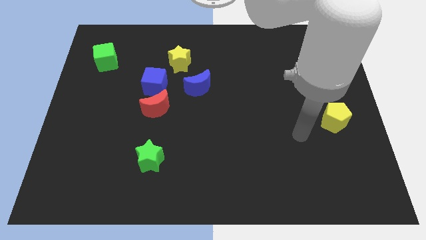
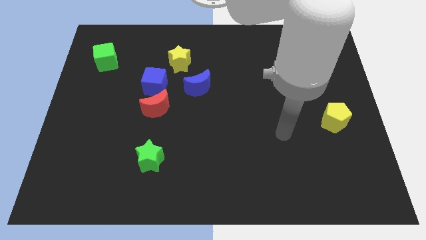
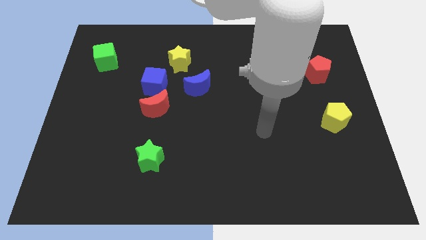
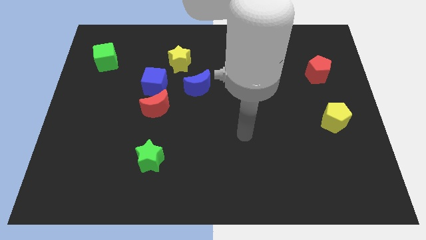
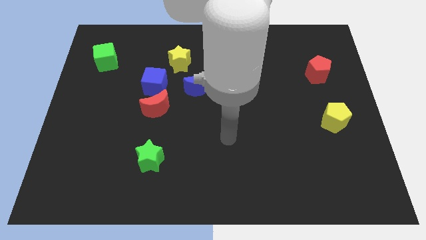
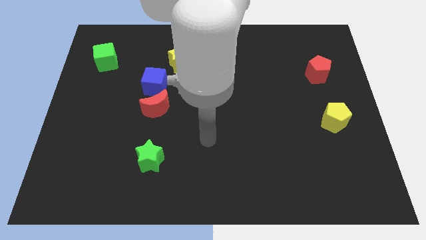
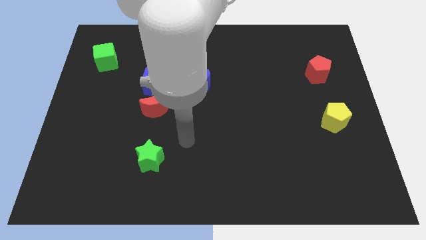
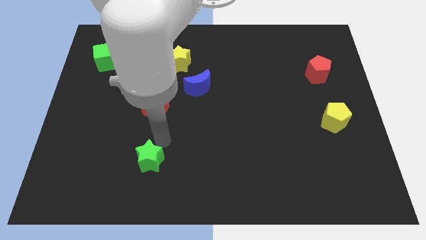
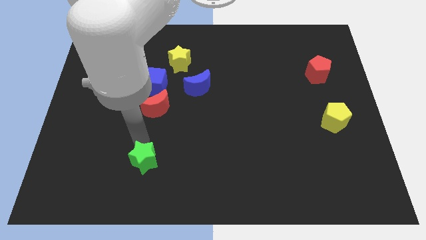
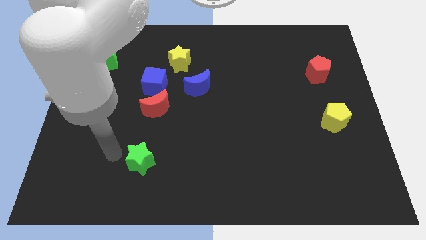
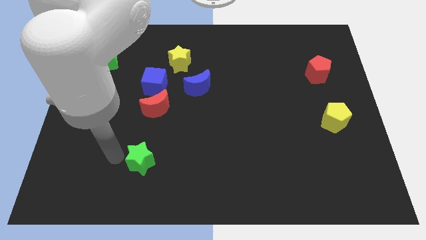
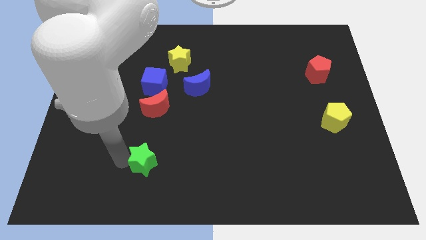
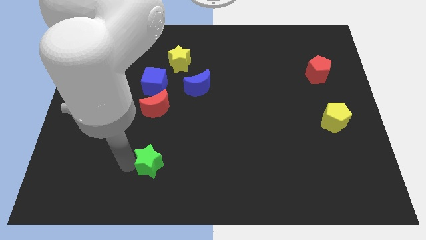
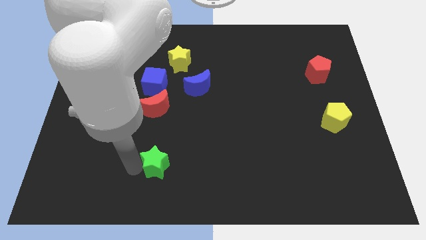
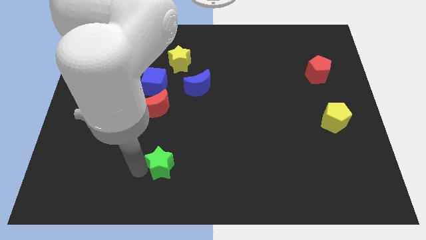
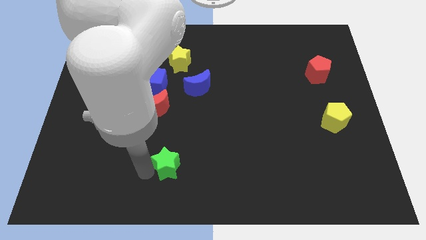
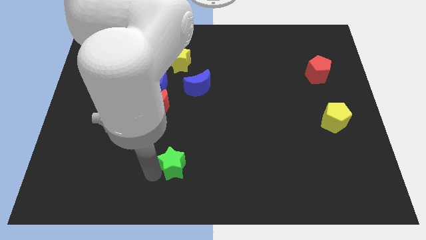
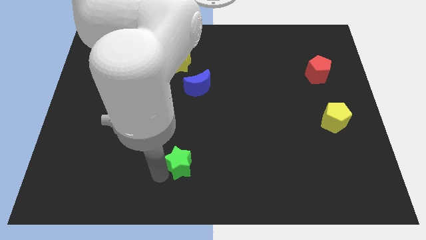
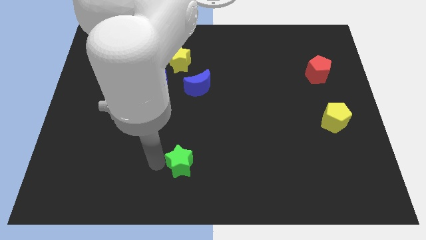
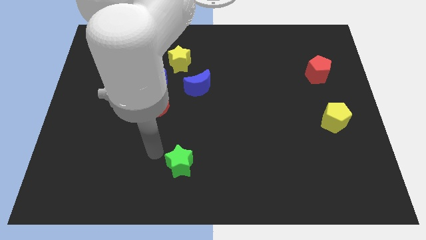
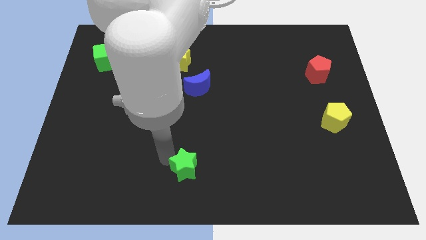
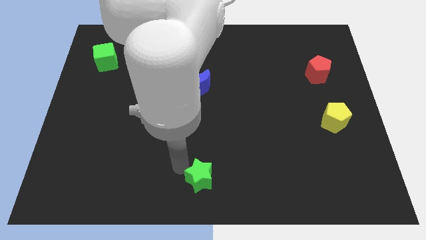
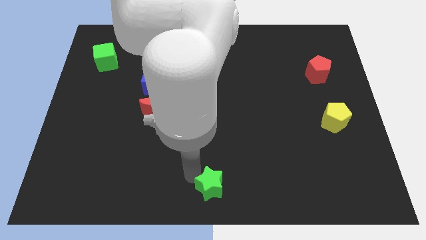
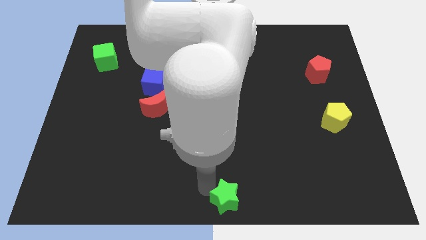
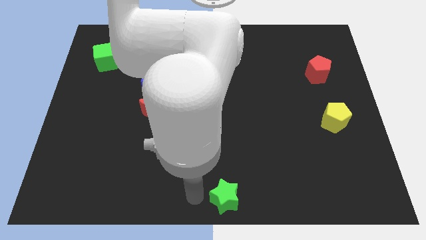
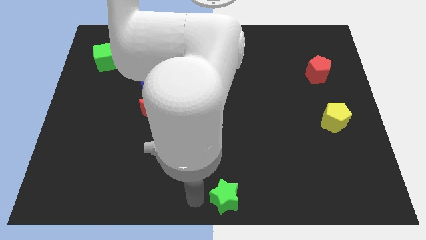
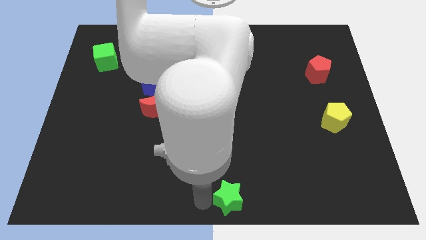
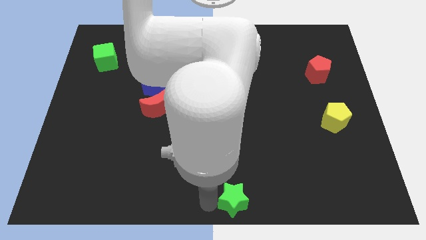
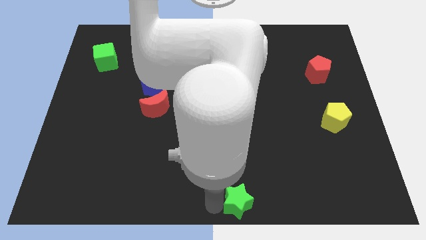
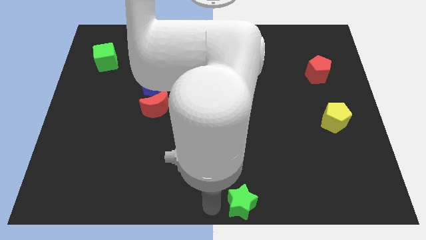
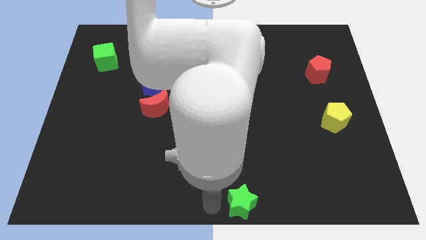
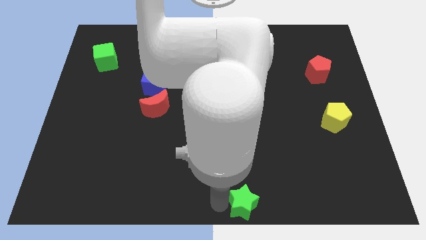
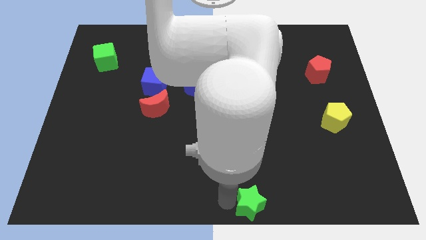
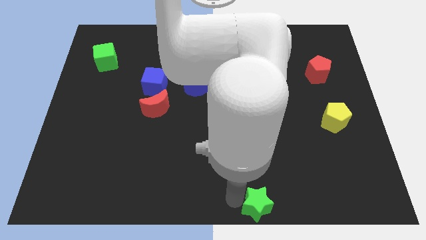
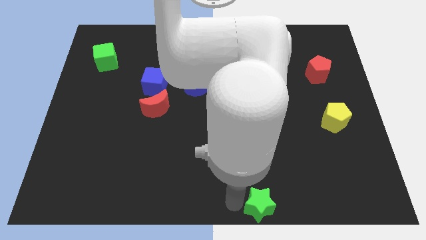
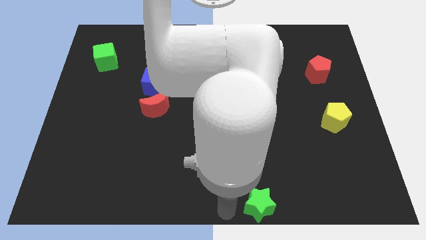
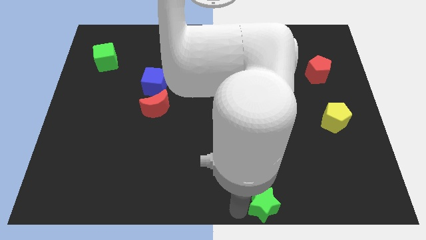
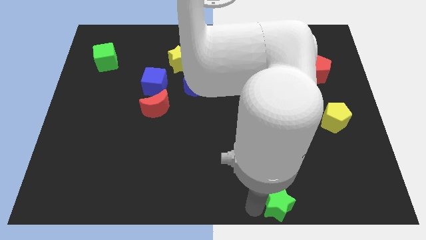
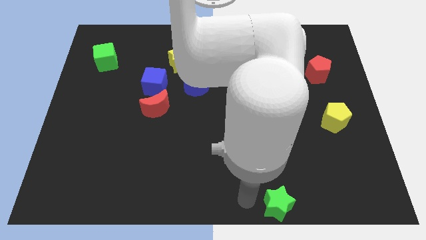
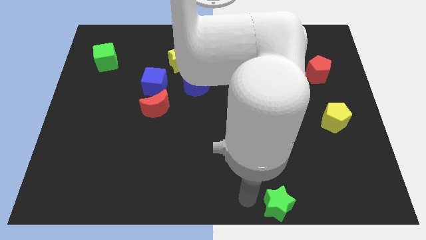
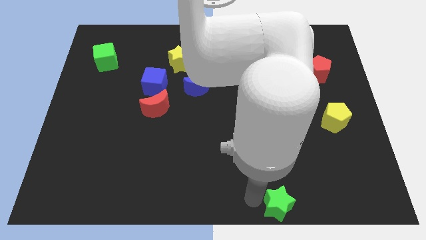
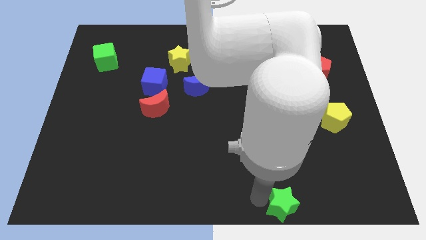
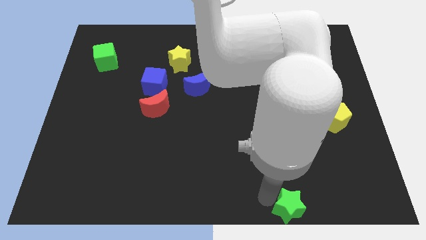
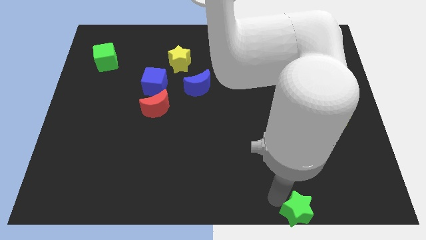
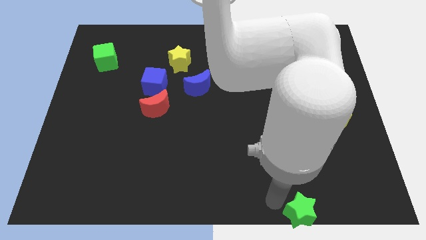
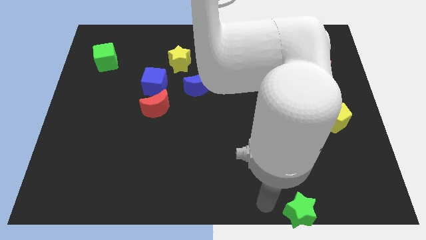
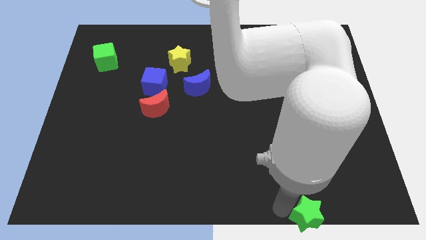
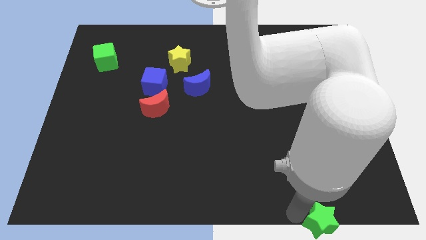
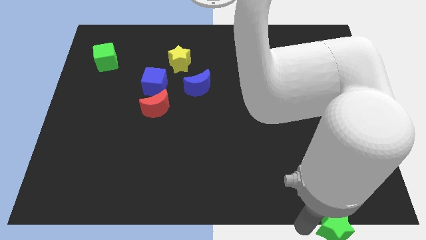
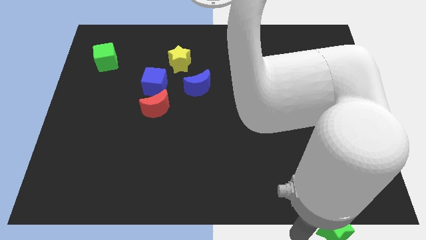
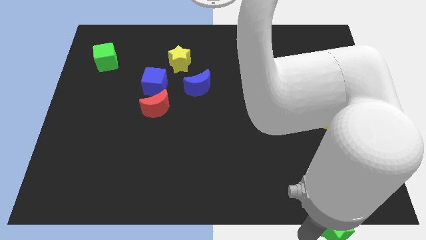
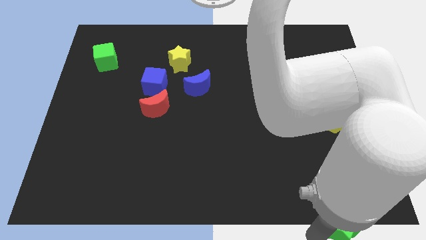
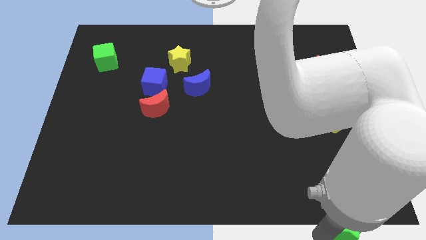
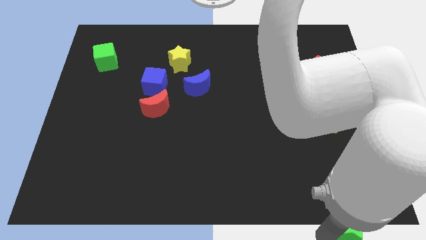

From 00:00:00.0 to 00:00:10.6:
slide the green star to the bottom right of the board

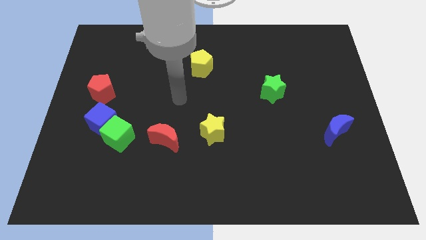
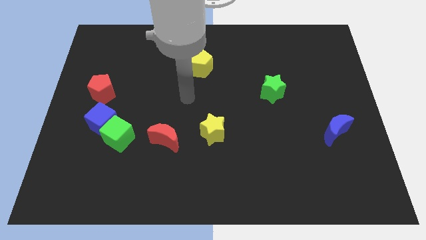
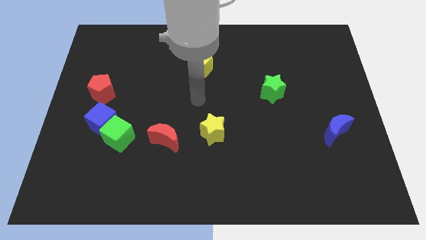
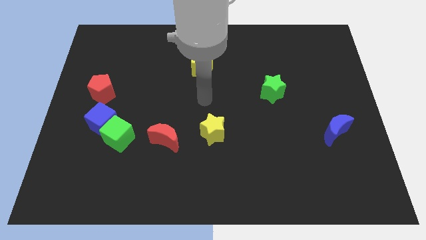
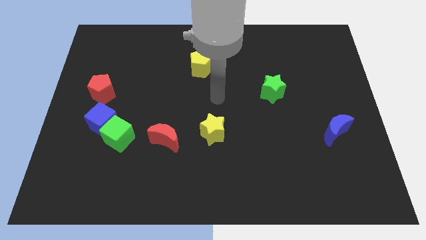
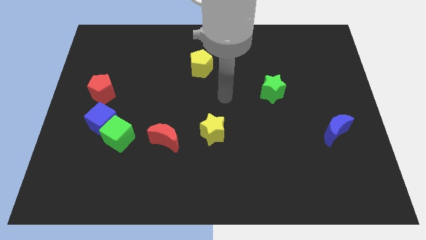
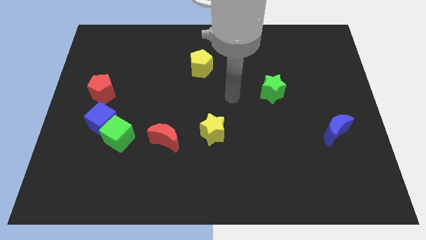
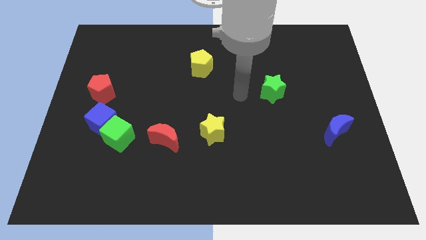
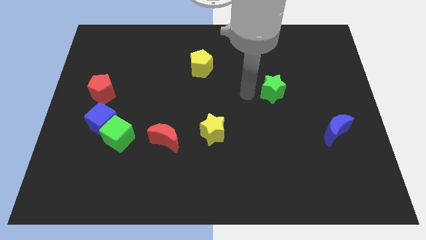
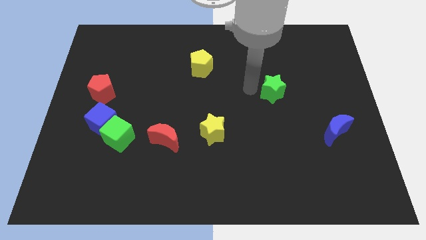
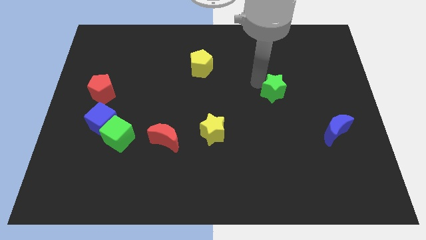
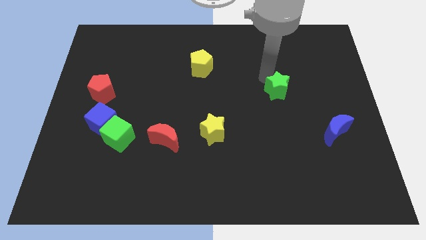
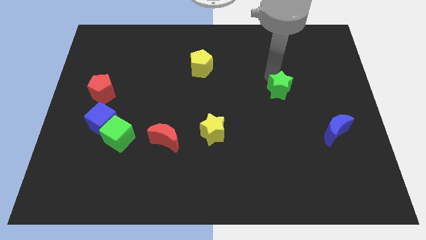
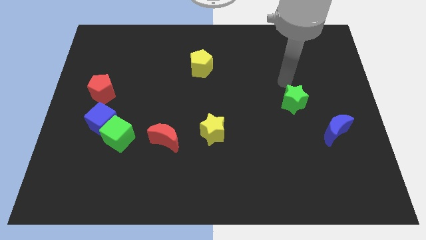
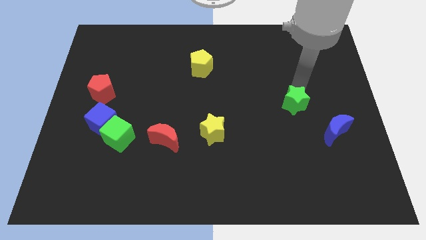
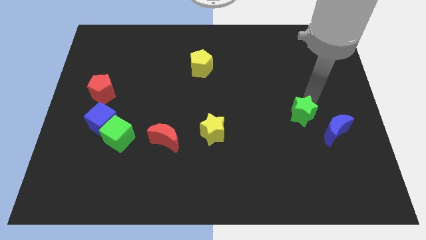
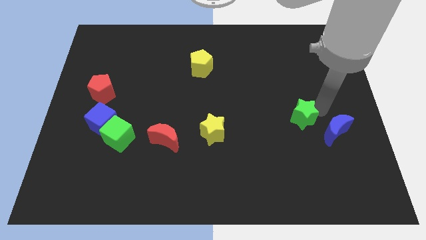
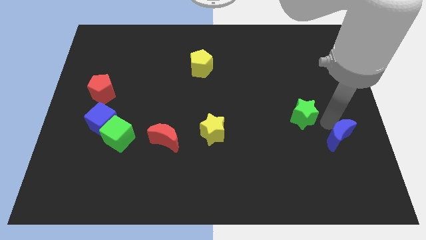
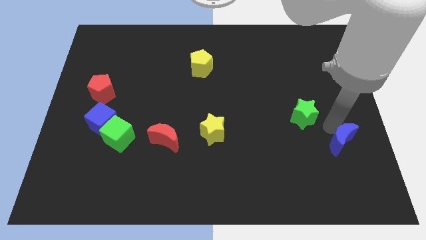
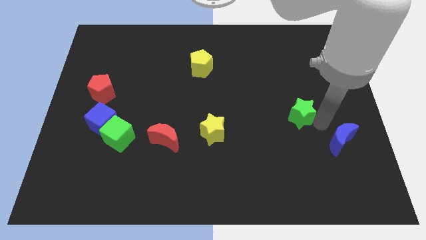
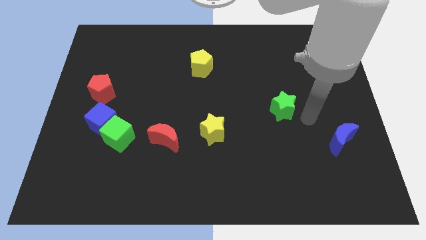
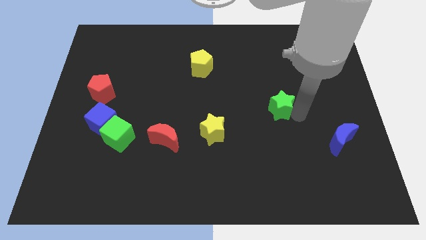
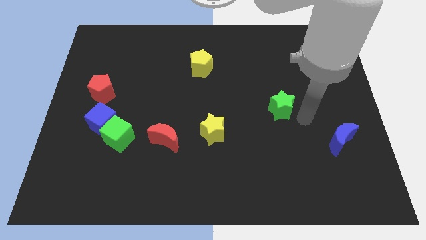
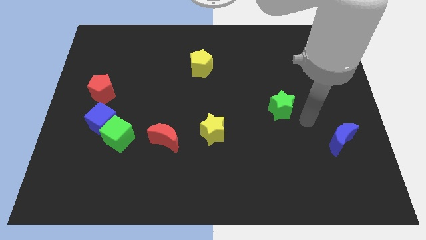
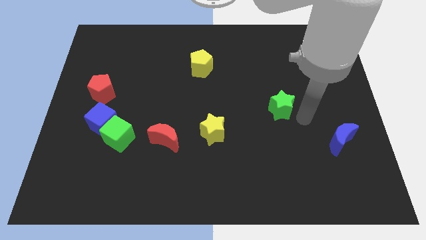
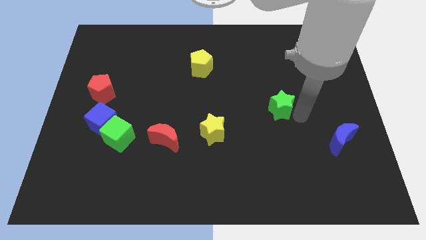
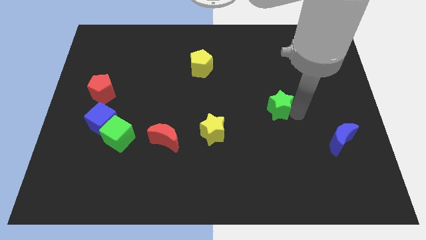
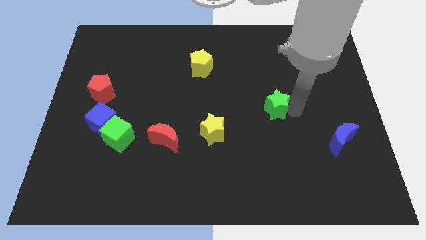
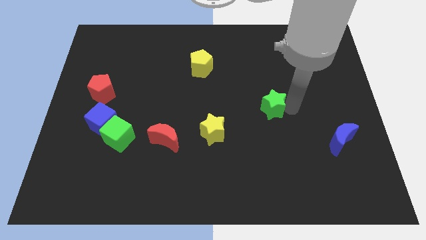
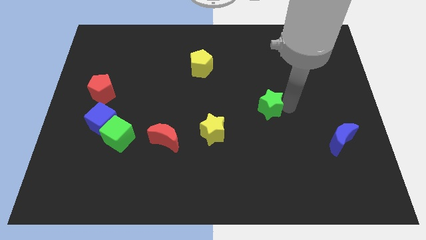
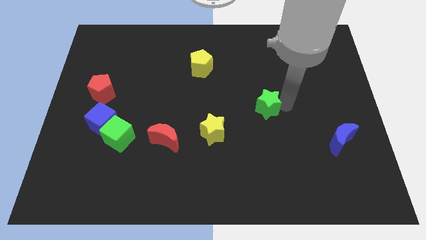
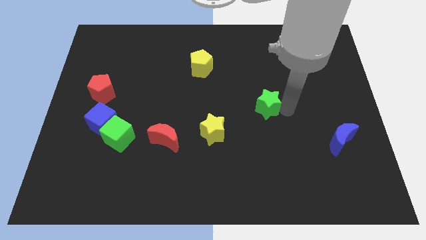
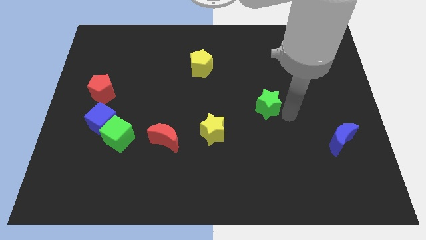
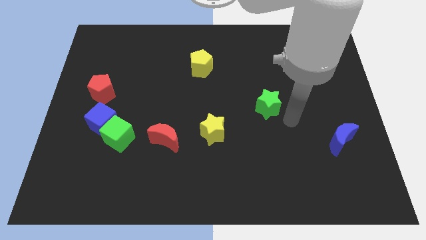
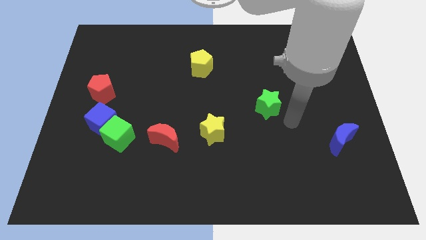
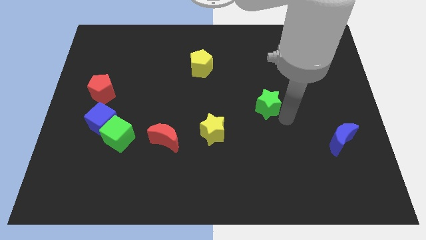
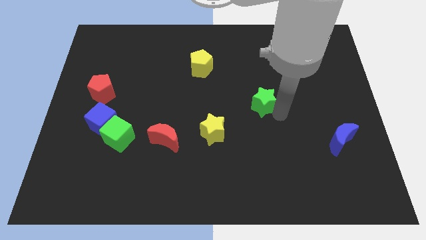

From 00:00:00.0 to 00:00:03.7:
put the green star to the center
